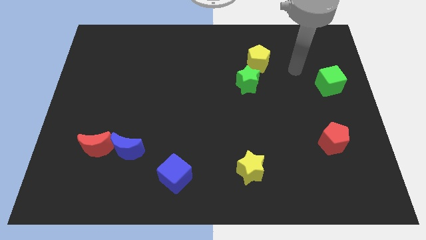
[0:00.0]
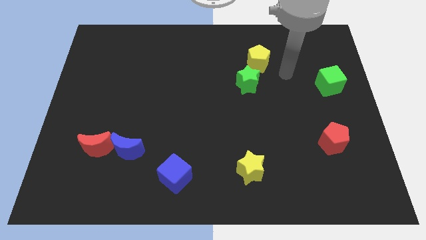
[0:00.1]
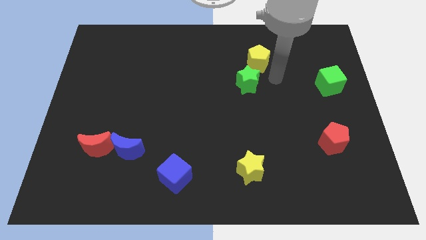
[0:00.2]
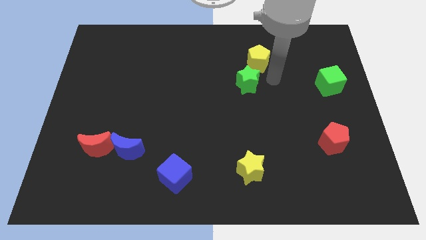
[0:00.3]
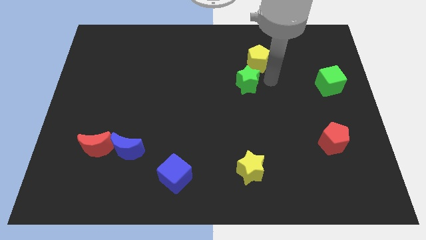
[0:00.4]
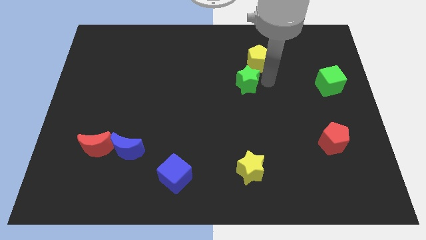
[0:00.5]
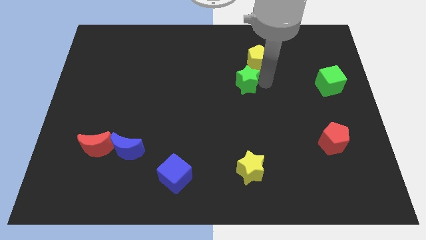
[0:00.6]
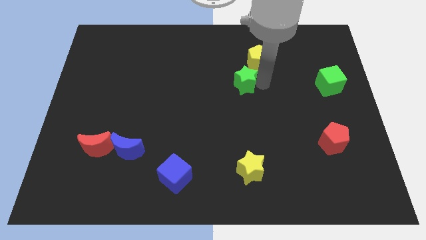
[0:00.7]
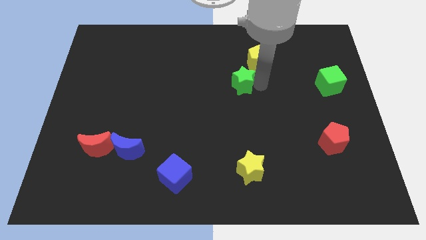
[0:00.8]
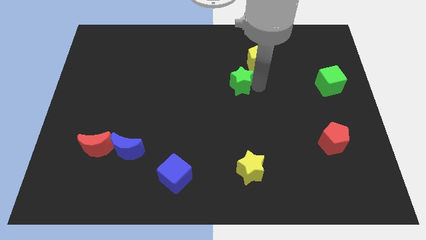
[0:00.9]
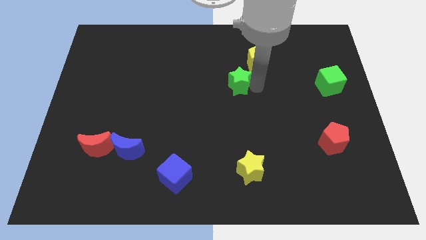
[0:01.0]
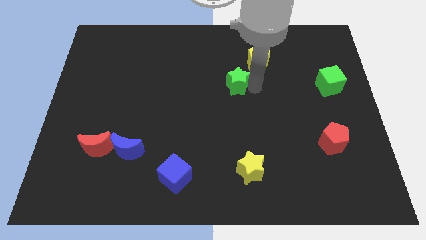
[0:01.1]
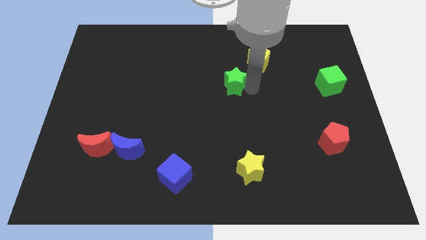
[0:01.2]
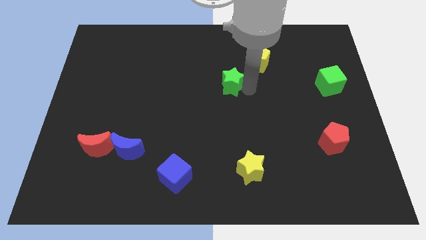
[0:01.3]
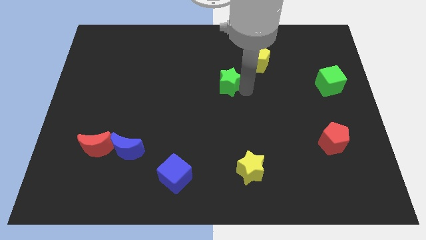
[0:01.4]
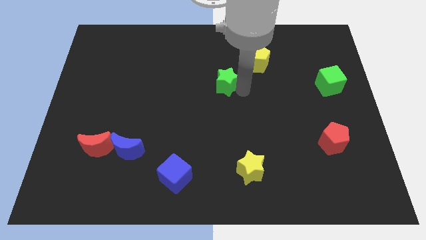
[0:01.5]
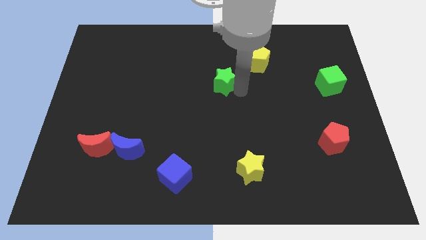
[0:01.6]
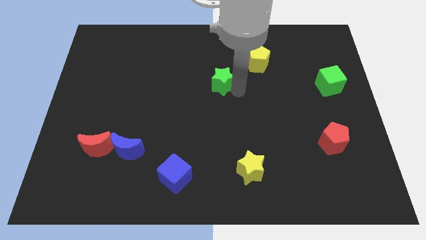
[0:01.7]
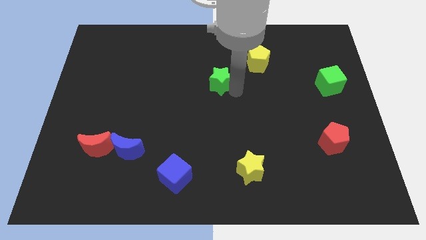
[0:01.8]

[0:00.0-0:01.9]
slightly move the green star left

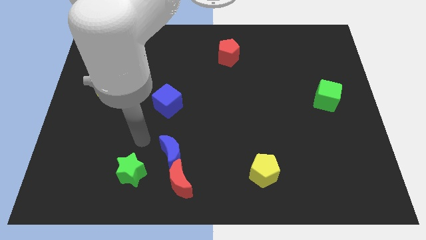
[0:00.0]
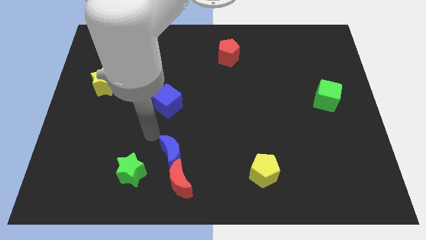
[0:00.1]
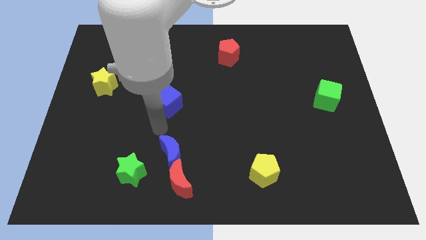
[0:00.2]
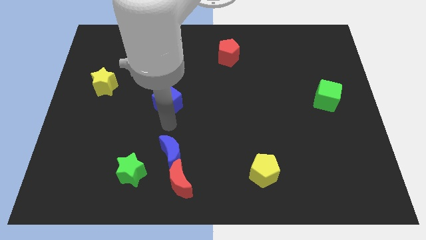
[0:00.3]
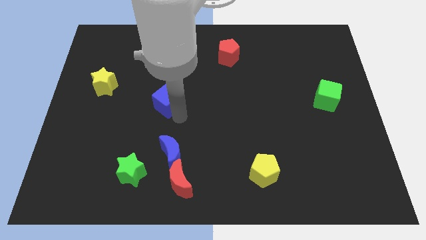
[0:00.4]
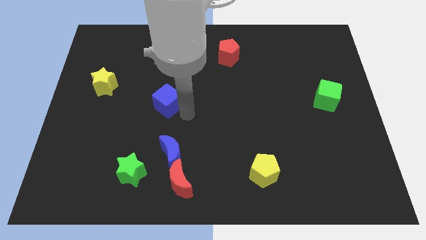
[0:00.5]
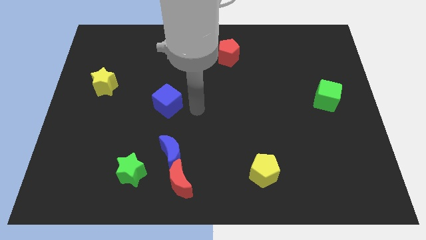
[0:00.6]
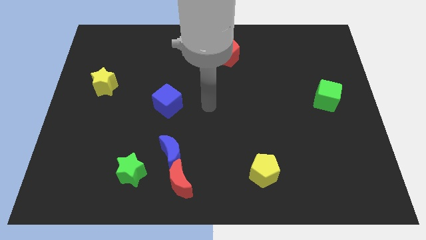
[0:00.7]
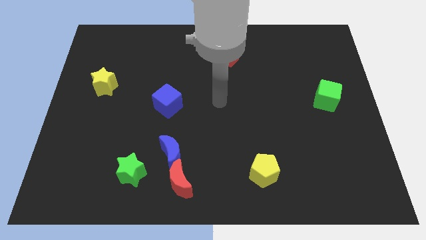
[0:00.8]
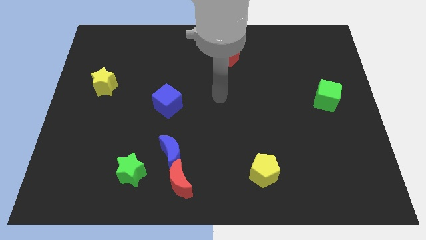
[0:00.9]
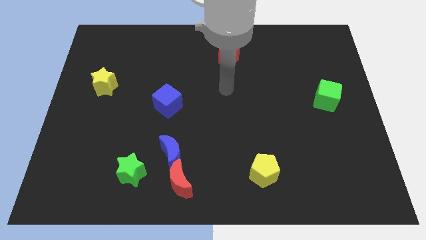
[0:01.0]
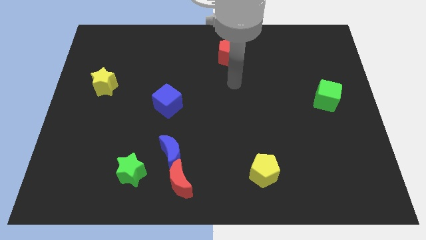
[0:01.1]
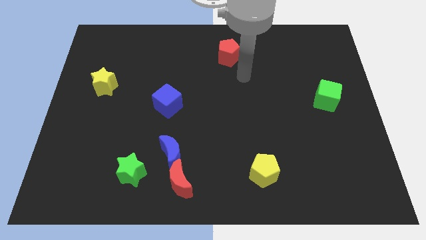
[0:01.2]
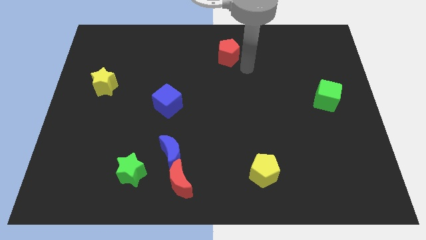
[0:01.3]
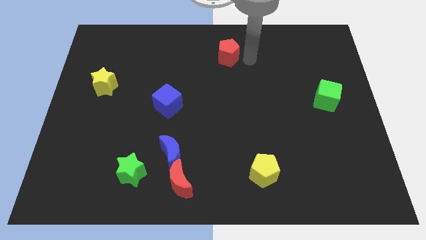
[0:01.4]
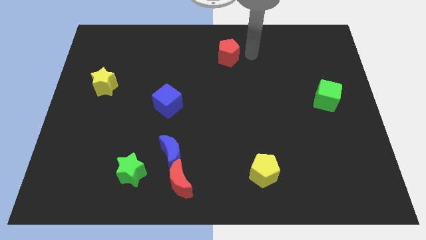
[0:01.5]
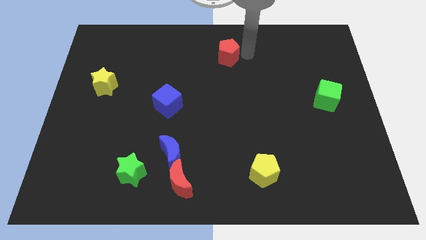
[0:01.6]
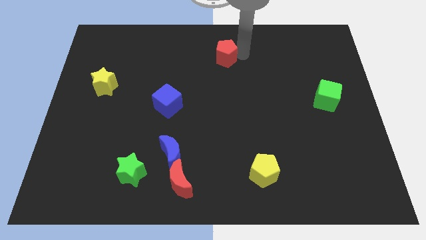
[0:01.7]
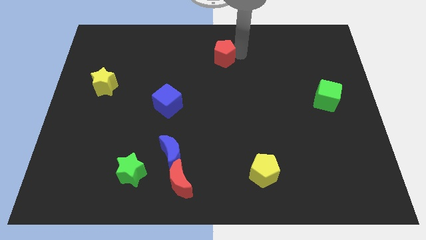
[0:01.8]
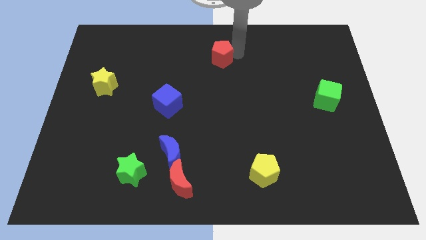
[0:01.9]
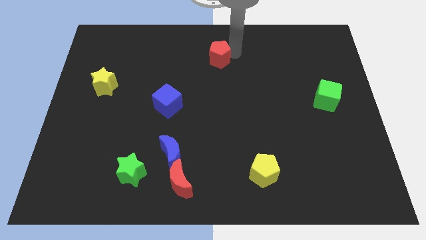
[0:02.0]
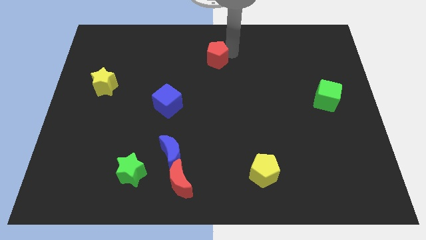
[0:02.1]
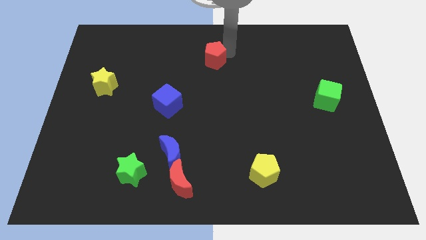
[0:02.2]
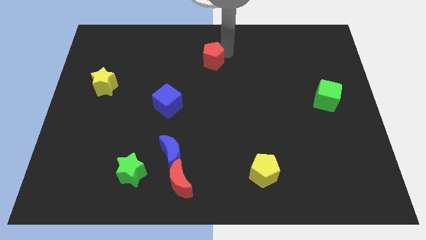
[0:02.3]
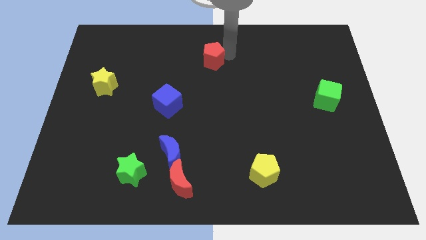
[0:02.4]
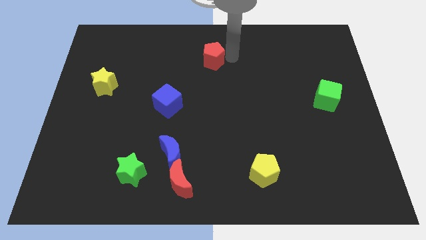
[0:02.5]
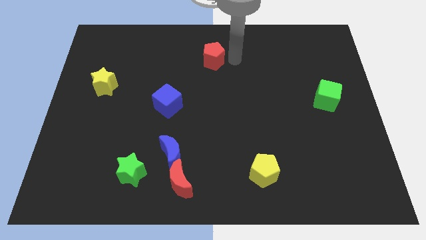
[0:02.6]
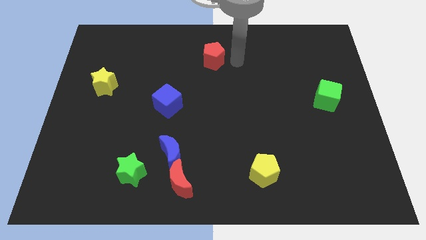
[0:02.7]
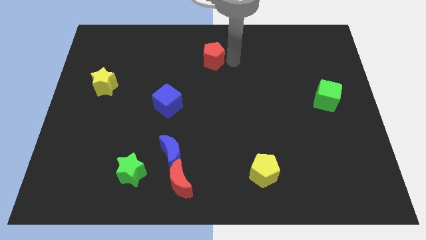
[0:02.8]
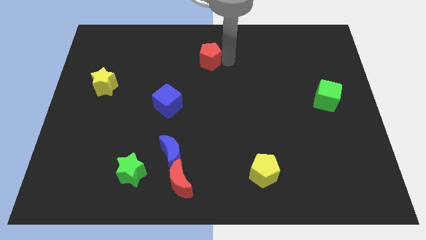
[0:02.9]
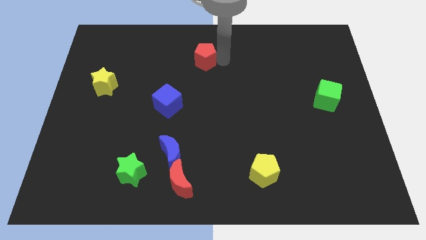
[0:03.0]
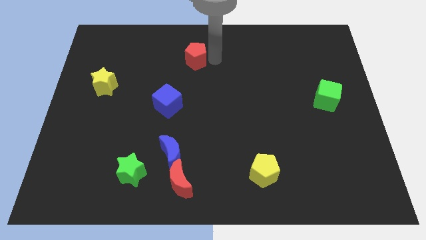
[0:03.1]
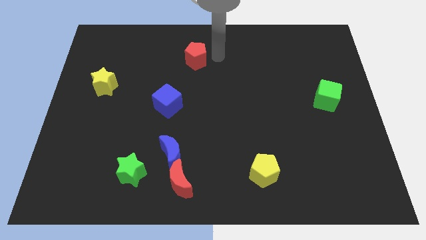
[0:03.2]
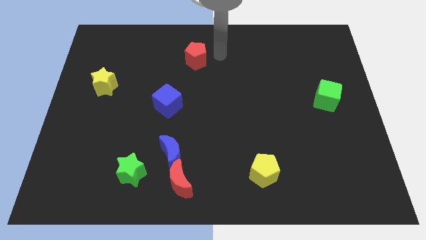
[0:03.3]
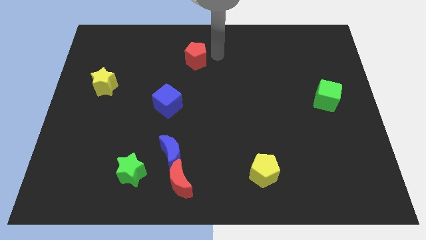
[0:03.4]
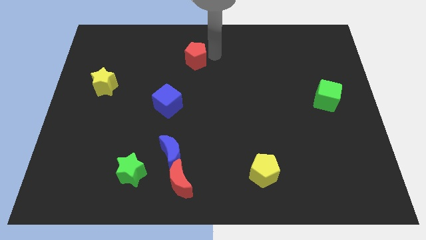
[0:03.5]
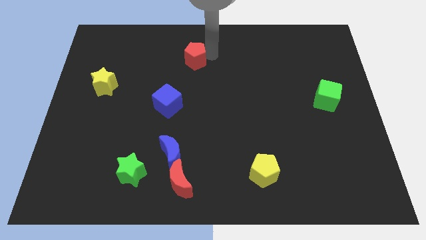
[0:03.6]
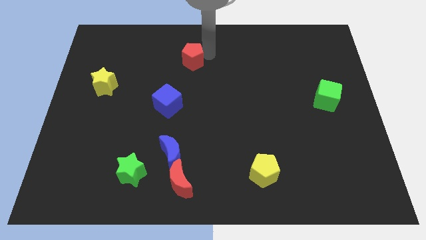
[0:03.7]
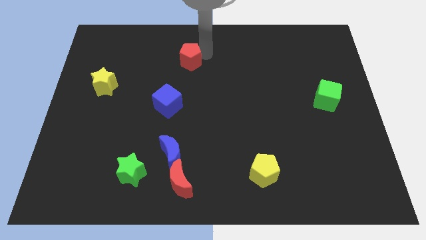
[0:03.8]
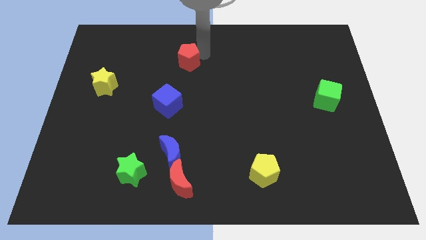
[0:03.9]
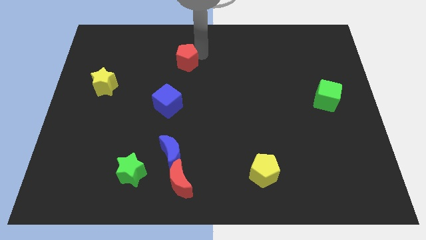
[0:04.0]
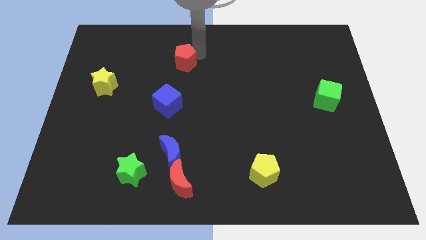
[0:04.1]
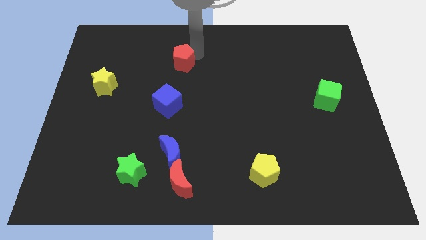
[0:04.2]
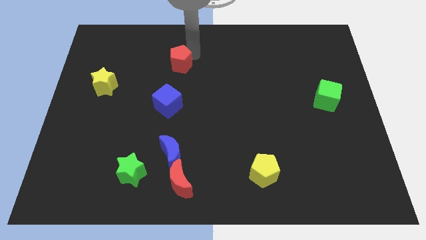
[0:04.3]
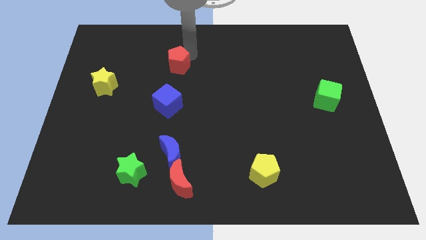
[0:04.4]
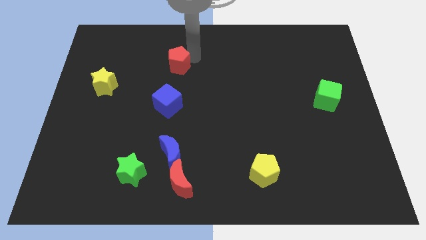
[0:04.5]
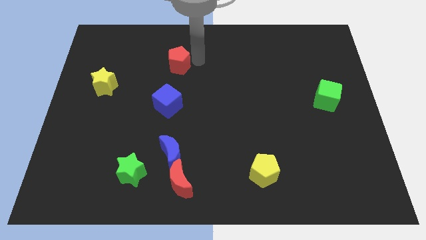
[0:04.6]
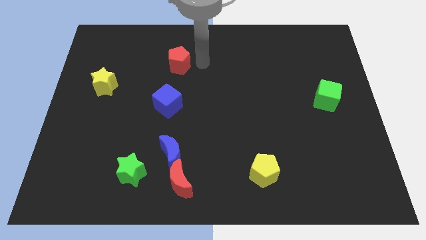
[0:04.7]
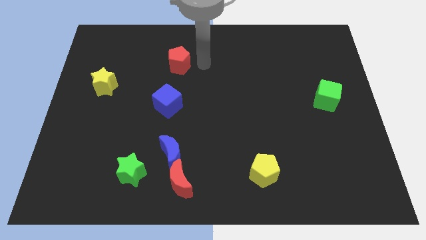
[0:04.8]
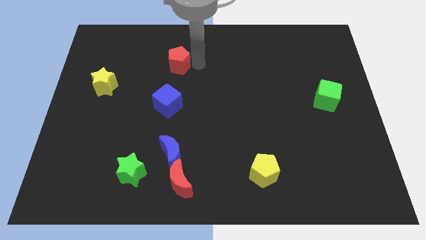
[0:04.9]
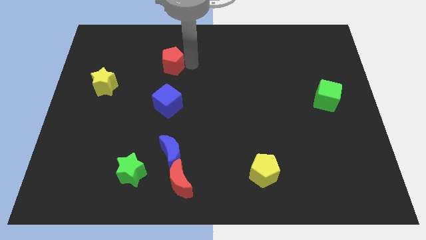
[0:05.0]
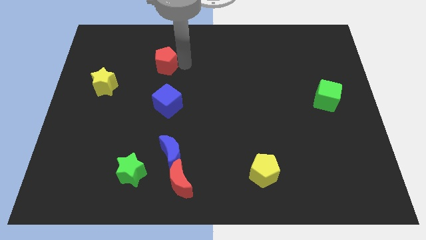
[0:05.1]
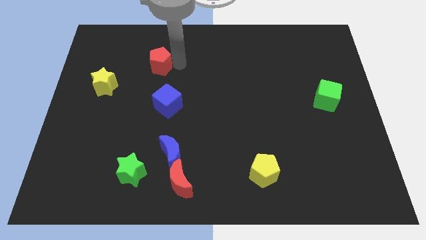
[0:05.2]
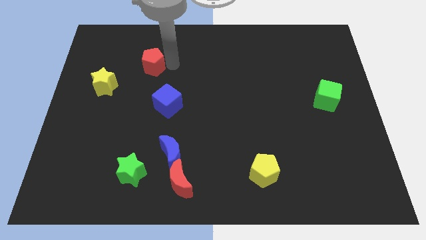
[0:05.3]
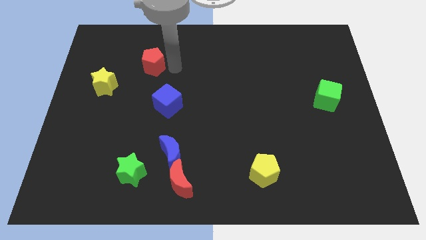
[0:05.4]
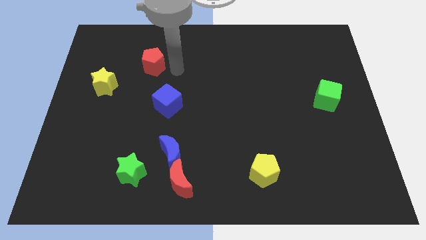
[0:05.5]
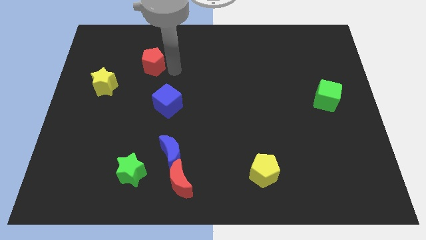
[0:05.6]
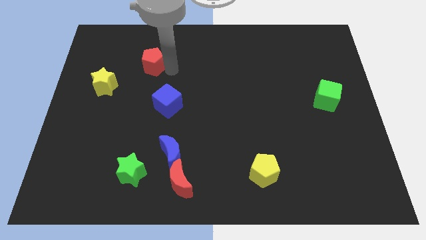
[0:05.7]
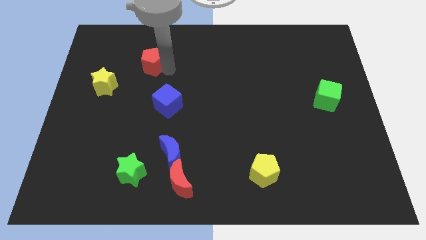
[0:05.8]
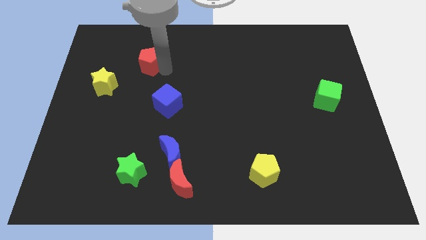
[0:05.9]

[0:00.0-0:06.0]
slide the red pentagon to the left
